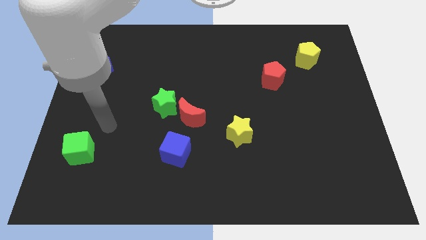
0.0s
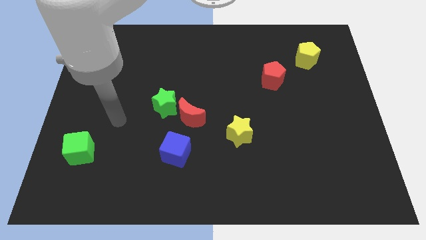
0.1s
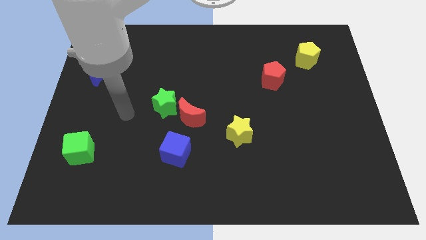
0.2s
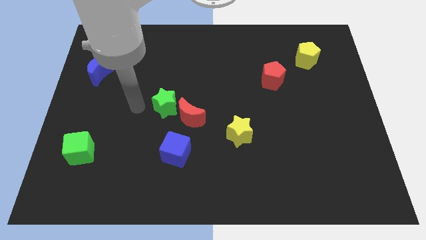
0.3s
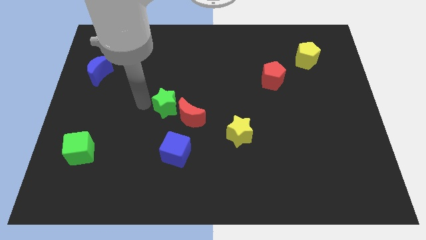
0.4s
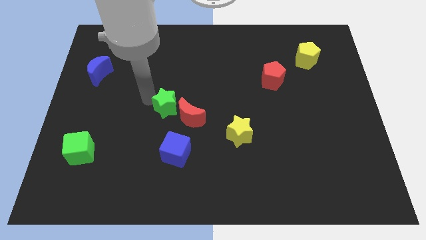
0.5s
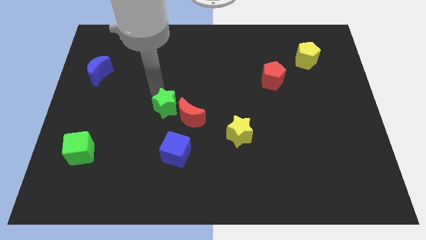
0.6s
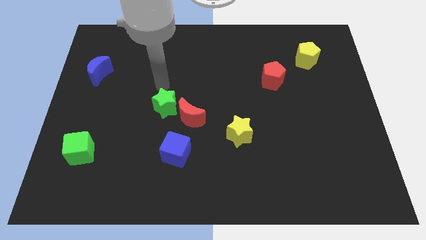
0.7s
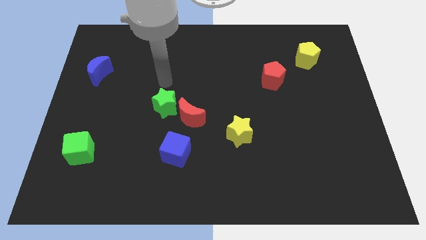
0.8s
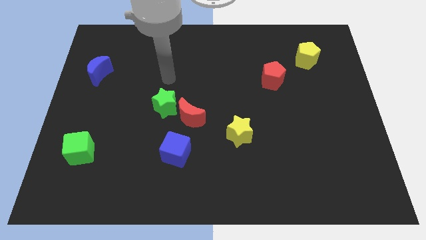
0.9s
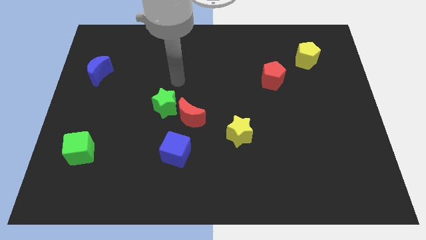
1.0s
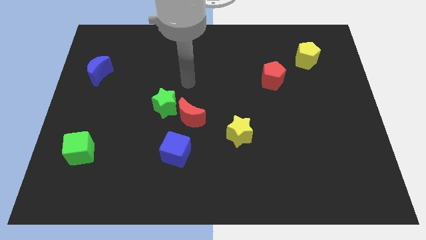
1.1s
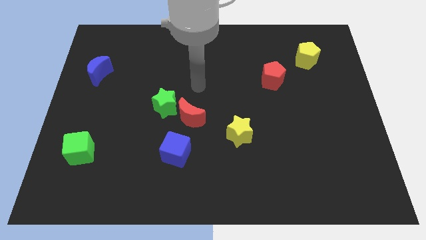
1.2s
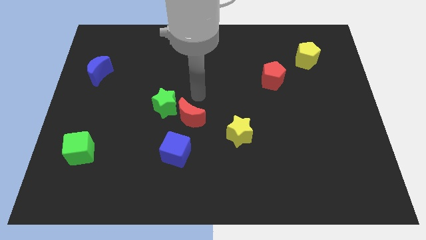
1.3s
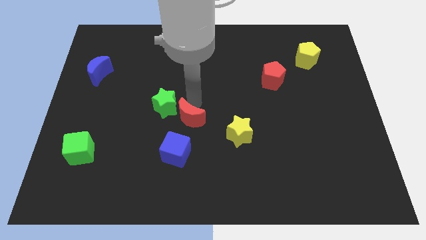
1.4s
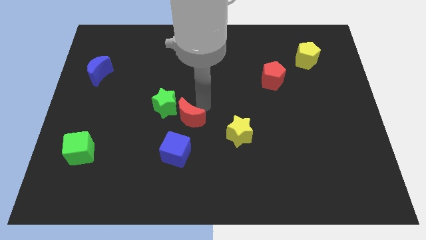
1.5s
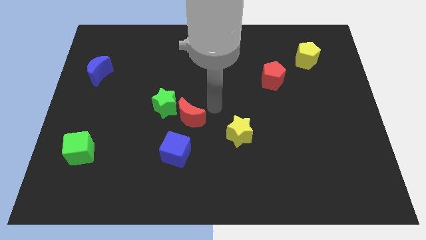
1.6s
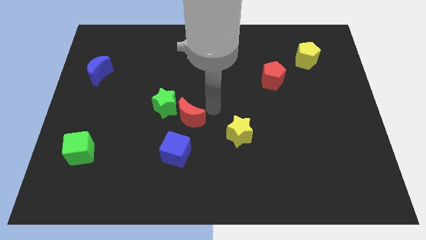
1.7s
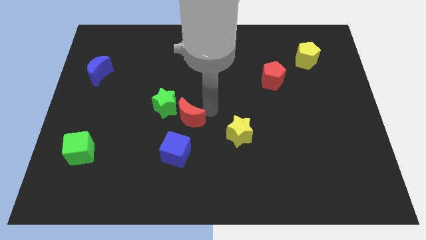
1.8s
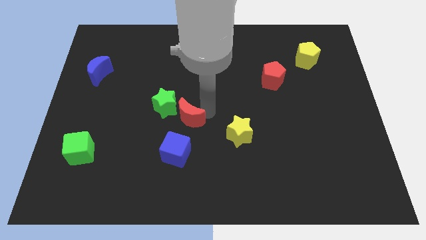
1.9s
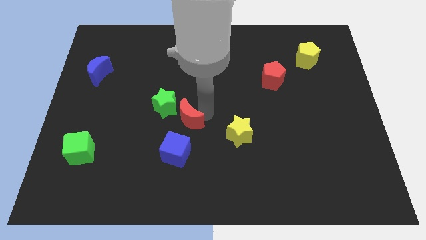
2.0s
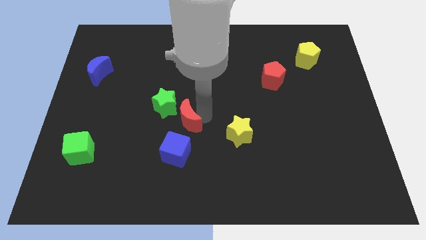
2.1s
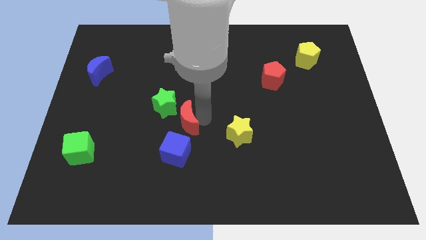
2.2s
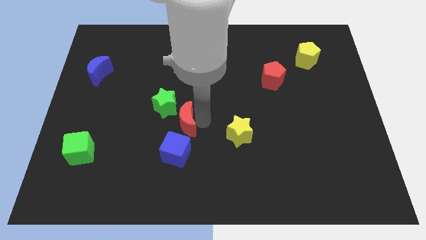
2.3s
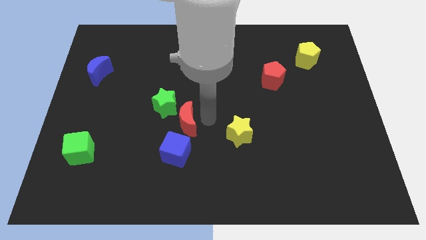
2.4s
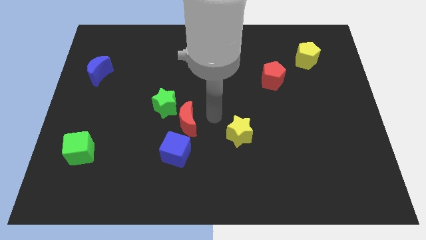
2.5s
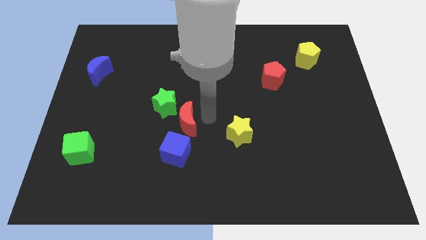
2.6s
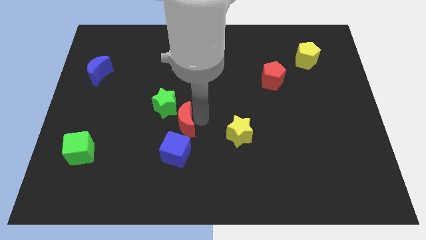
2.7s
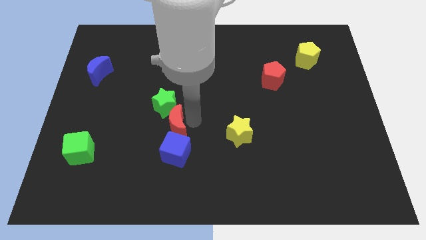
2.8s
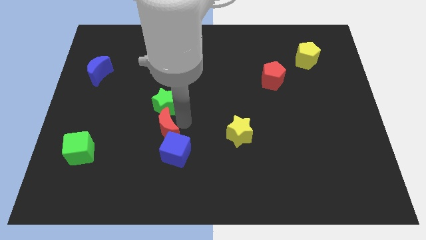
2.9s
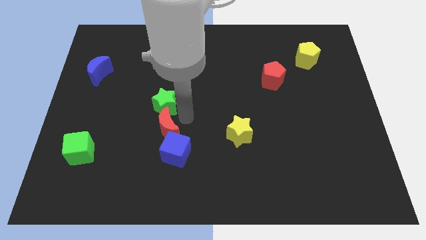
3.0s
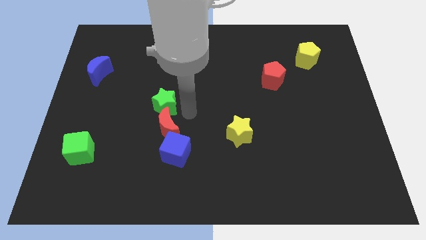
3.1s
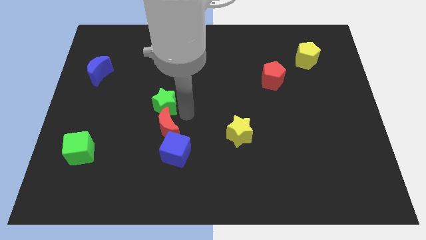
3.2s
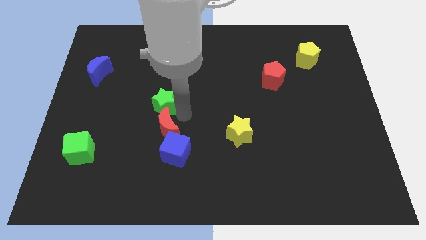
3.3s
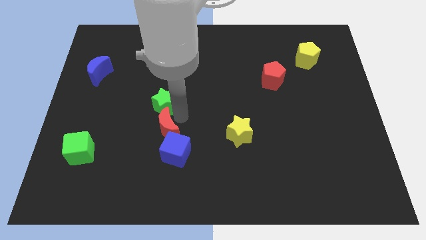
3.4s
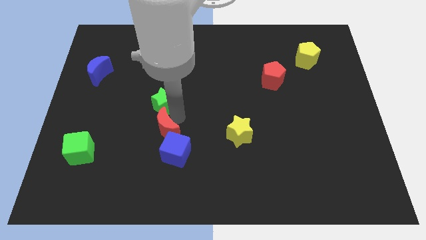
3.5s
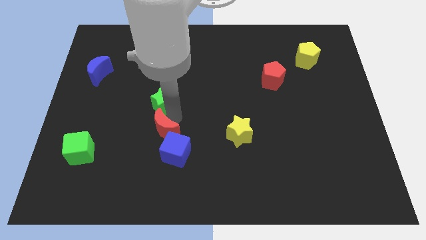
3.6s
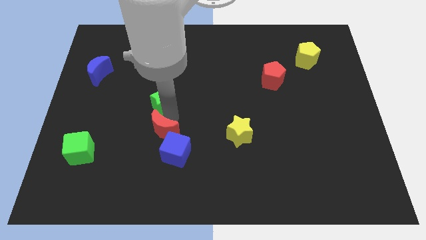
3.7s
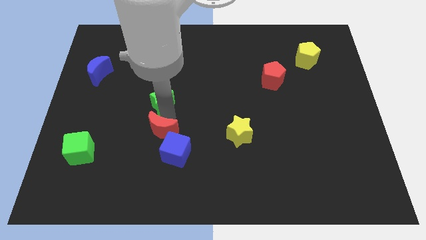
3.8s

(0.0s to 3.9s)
slide the red moon a little down and left diagonally

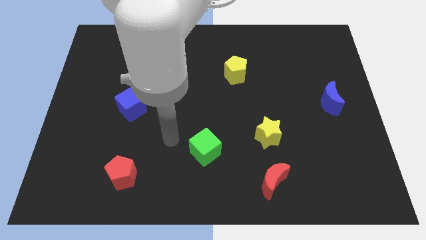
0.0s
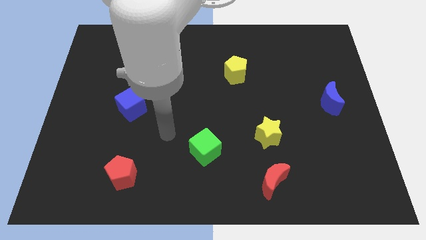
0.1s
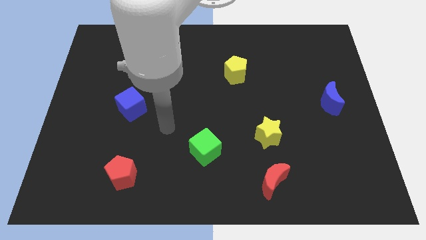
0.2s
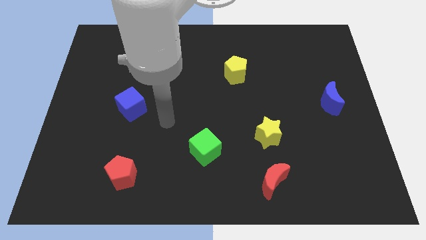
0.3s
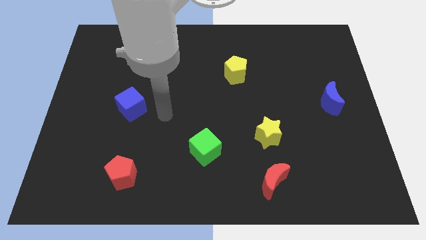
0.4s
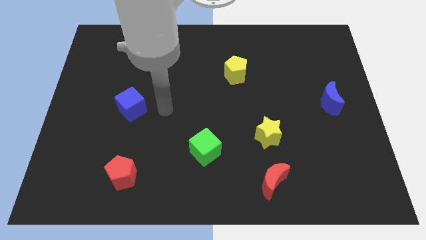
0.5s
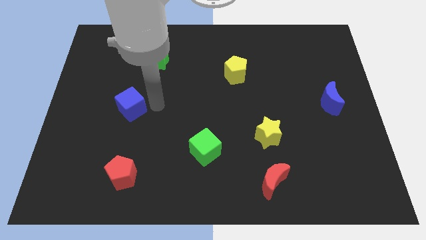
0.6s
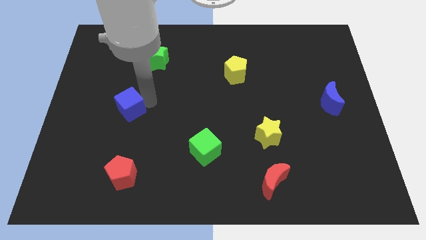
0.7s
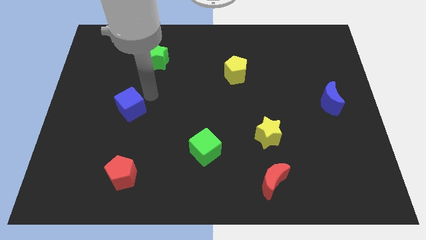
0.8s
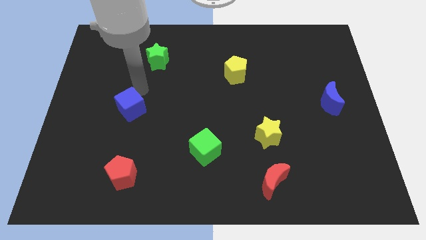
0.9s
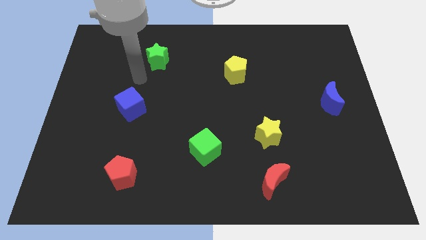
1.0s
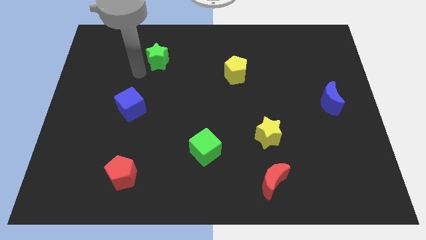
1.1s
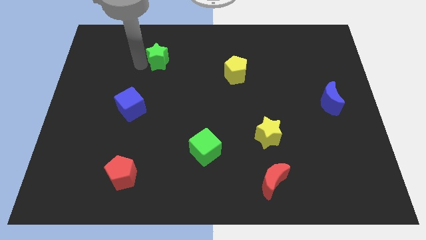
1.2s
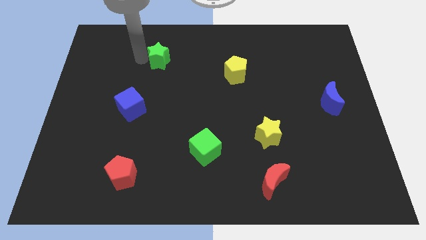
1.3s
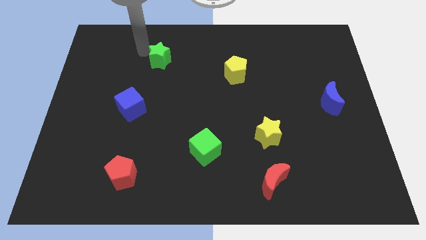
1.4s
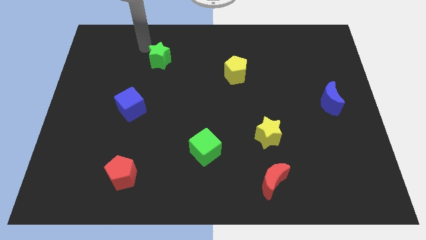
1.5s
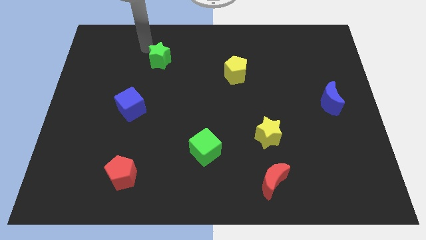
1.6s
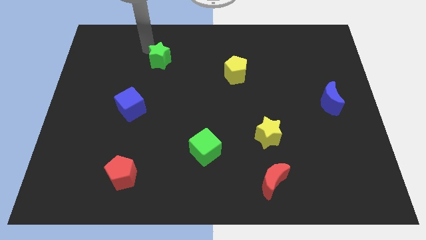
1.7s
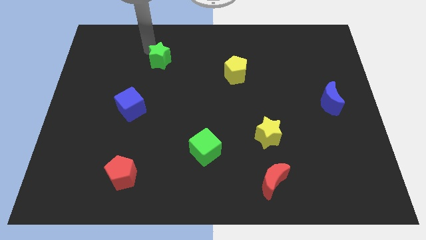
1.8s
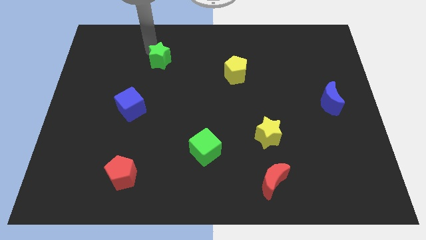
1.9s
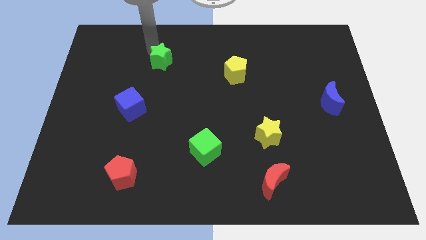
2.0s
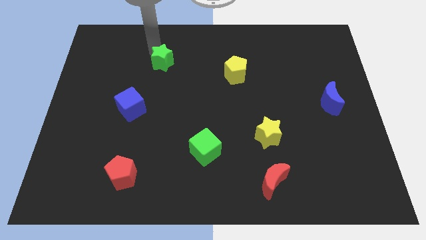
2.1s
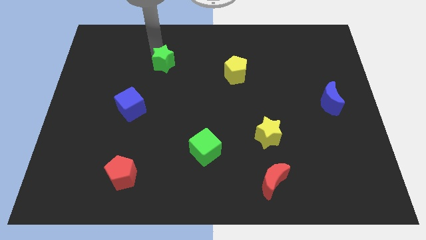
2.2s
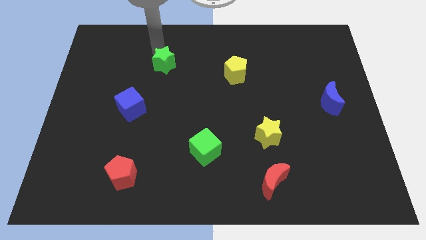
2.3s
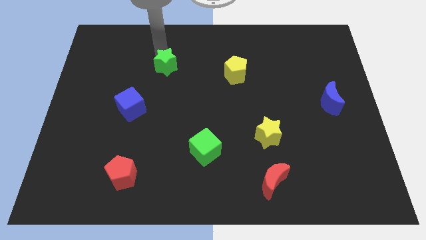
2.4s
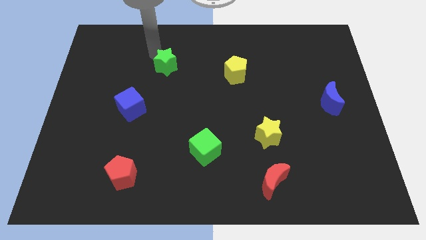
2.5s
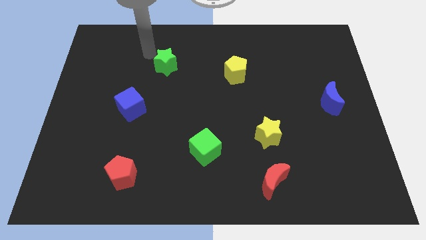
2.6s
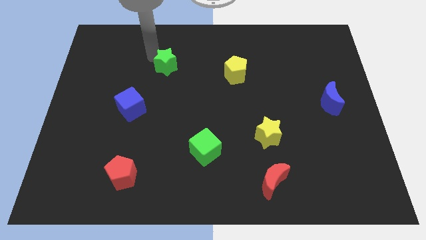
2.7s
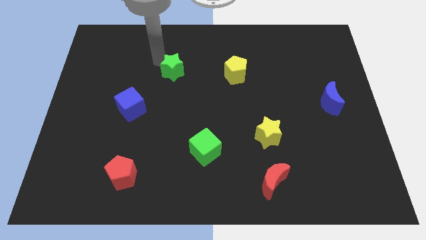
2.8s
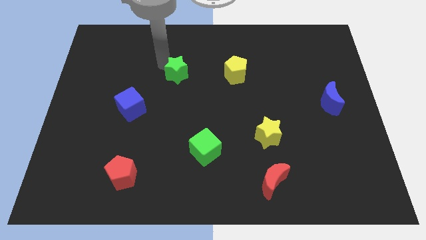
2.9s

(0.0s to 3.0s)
move the green star down and to the right a bit

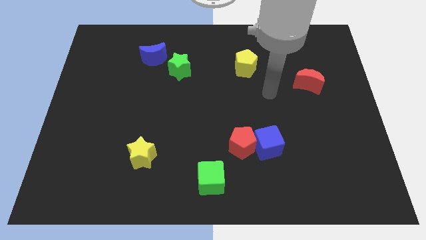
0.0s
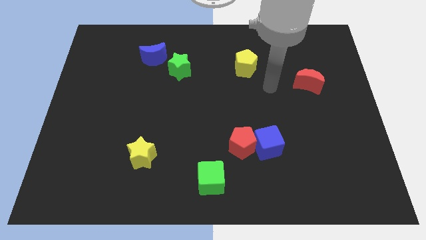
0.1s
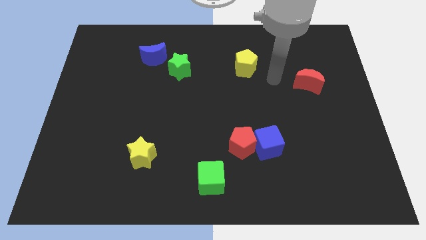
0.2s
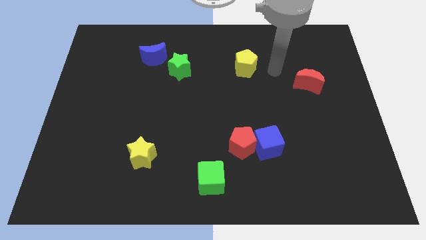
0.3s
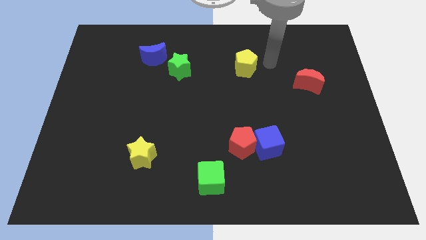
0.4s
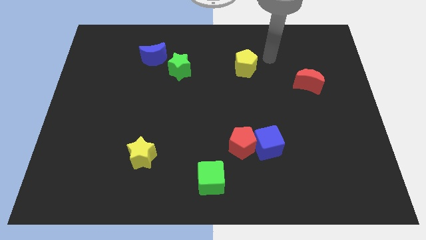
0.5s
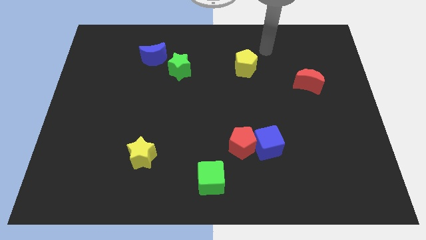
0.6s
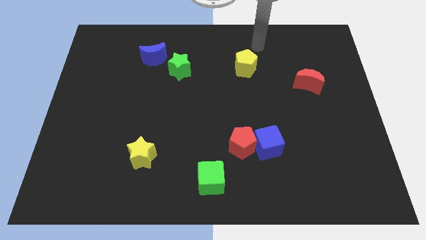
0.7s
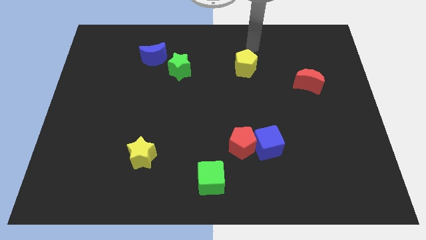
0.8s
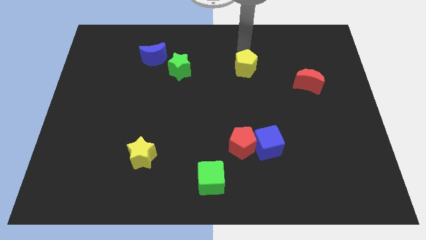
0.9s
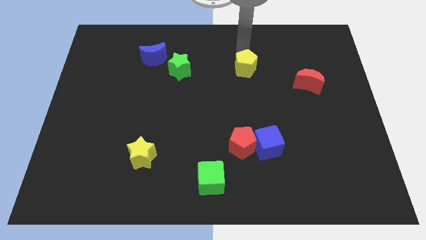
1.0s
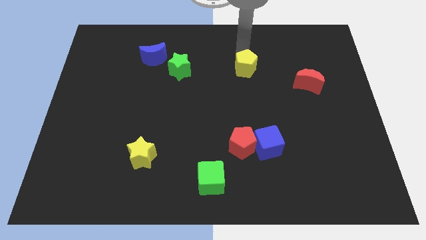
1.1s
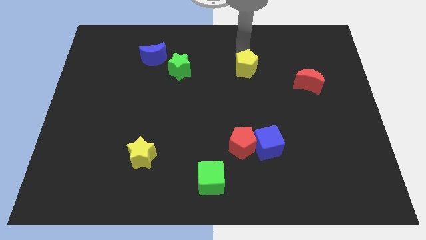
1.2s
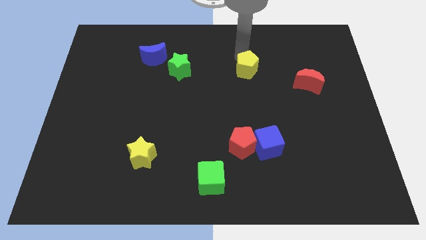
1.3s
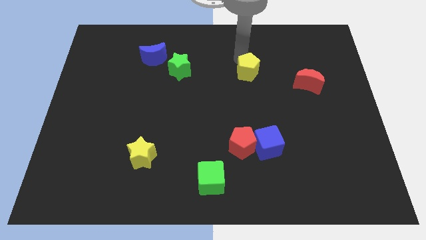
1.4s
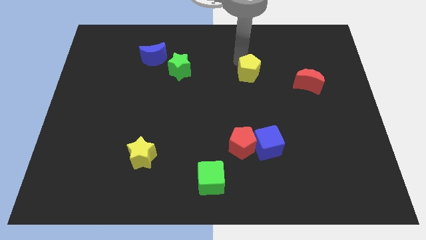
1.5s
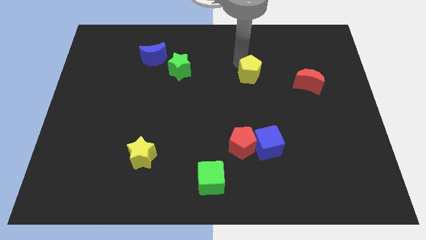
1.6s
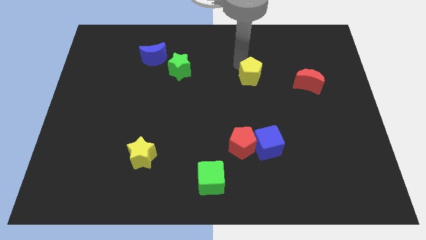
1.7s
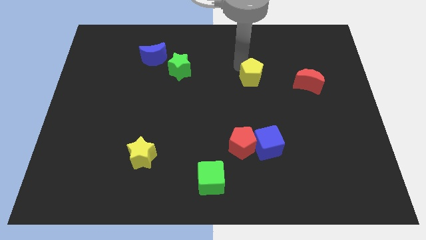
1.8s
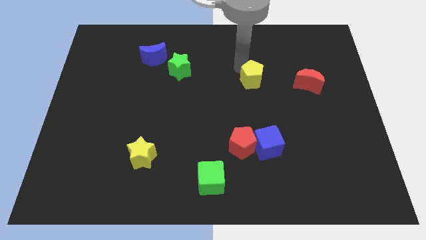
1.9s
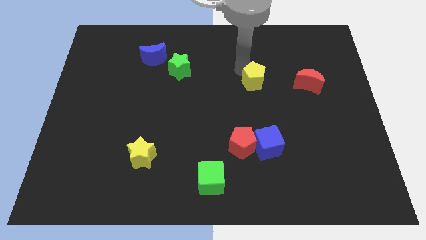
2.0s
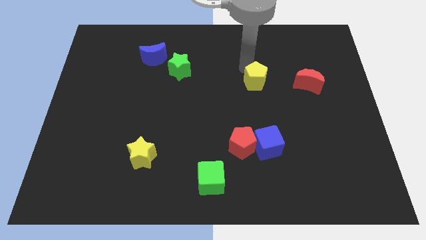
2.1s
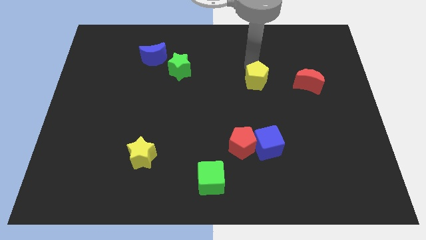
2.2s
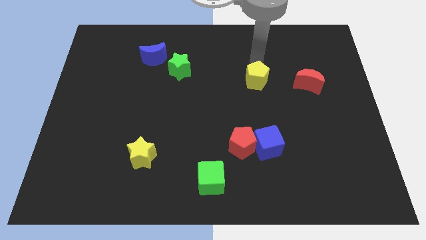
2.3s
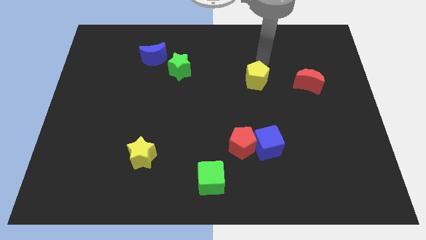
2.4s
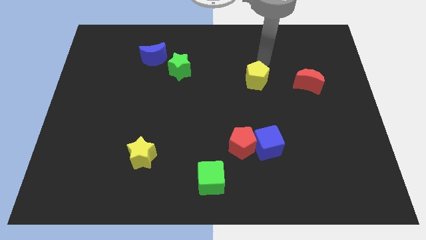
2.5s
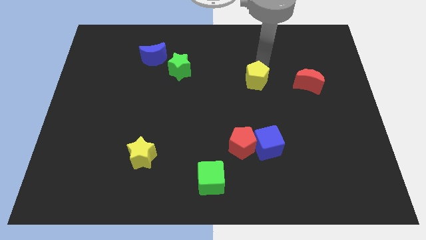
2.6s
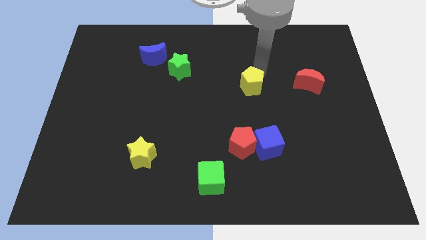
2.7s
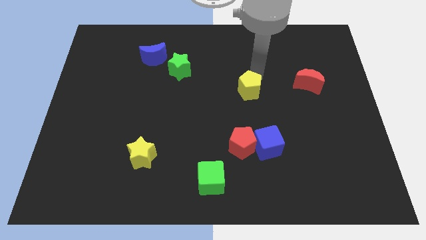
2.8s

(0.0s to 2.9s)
slightly push the yellow pentagon down
